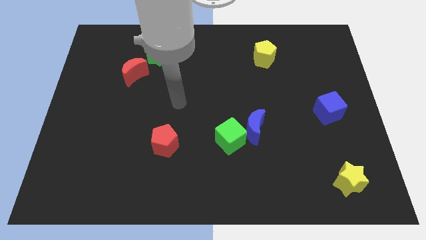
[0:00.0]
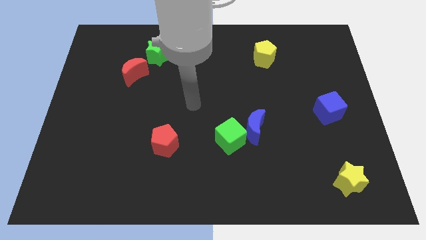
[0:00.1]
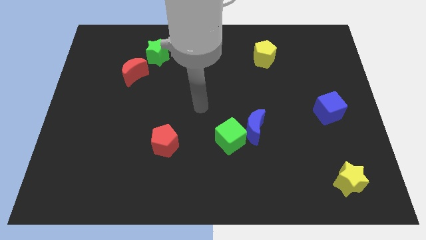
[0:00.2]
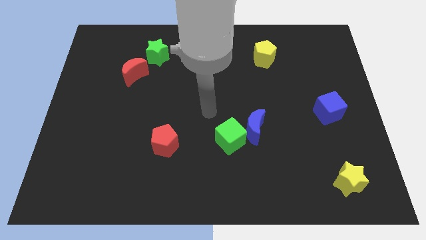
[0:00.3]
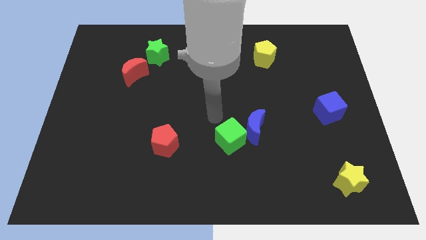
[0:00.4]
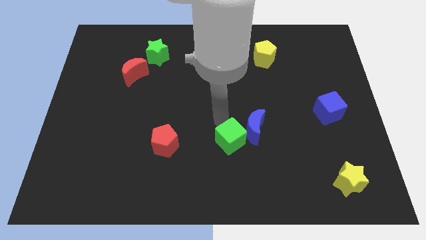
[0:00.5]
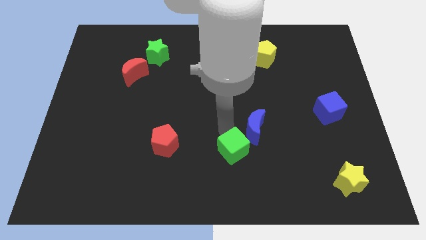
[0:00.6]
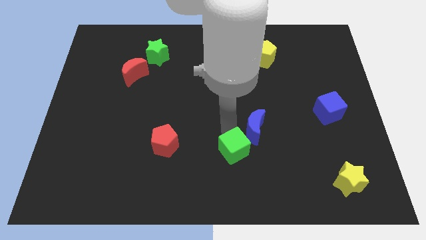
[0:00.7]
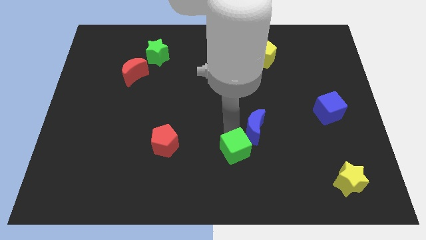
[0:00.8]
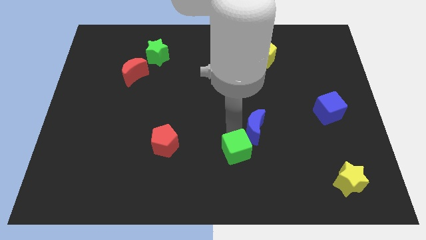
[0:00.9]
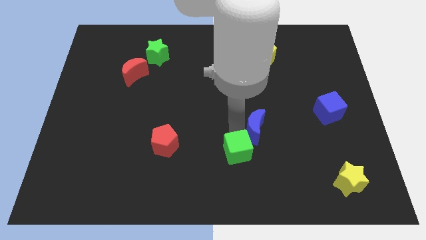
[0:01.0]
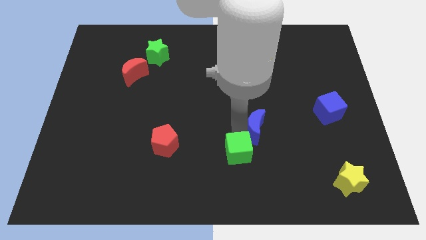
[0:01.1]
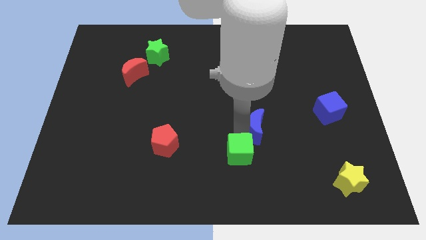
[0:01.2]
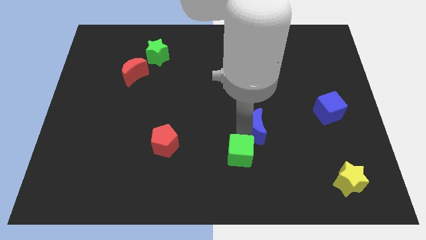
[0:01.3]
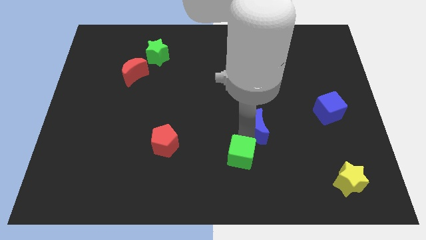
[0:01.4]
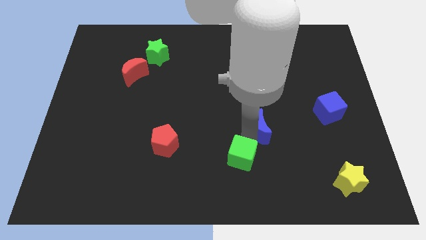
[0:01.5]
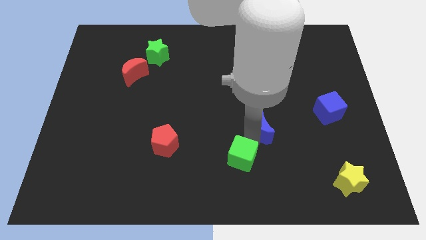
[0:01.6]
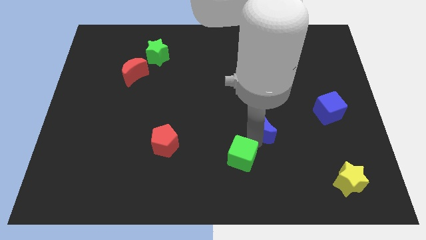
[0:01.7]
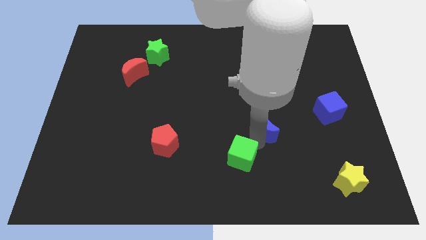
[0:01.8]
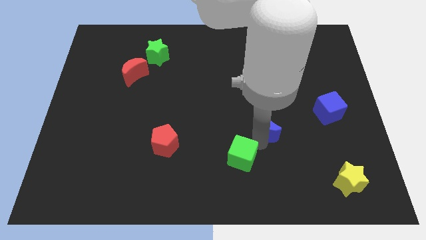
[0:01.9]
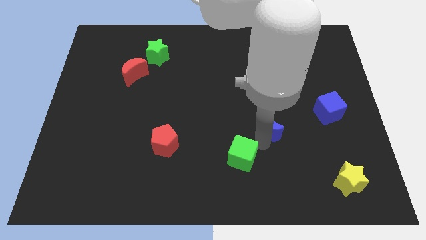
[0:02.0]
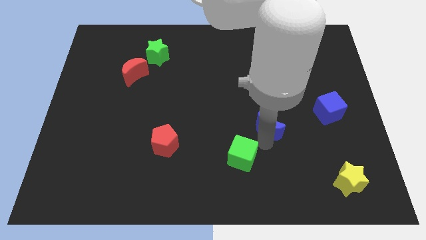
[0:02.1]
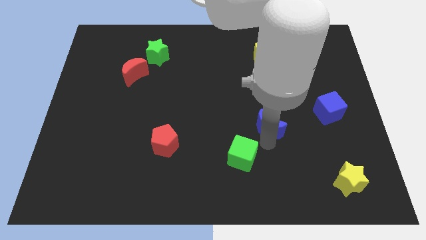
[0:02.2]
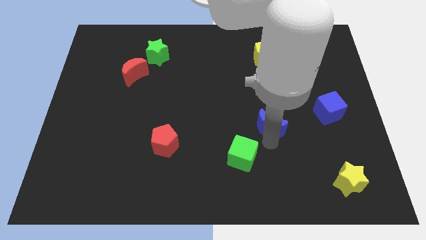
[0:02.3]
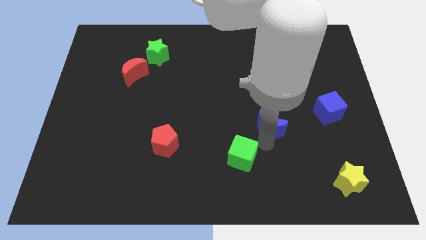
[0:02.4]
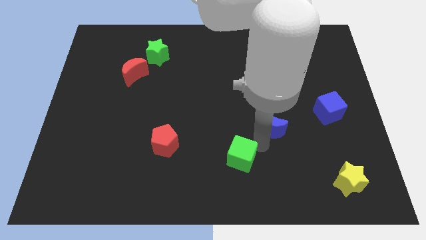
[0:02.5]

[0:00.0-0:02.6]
move the blue moon away from the green cube

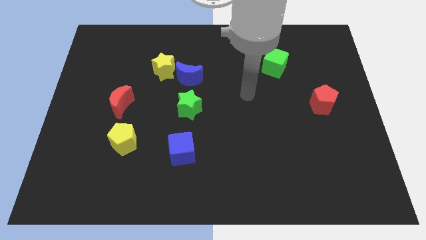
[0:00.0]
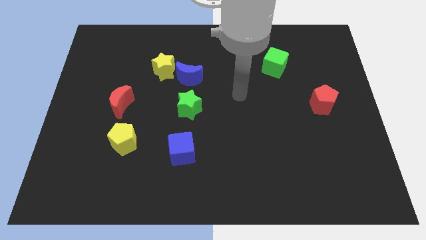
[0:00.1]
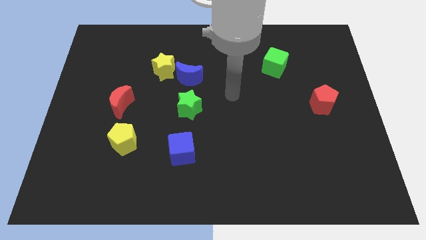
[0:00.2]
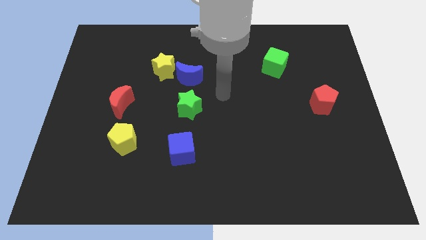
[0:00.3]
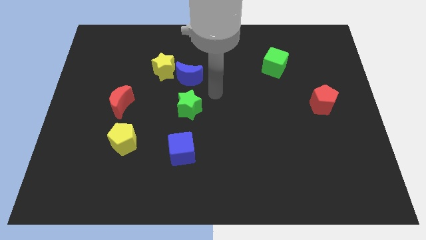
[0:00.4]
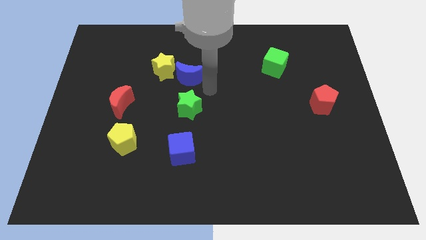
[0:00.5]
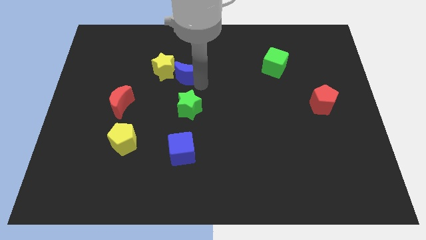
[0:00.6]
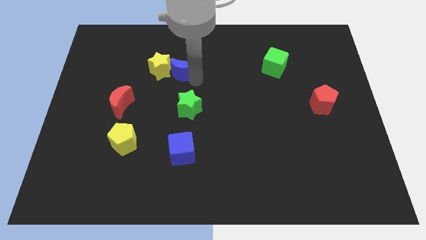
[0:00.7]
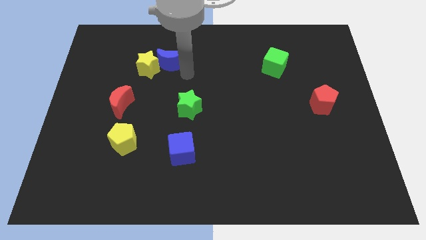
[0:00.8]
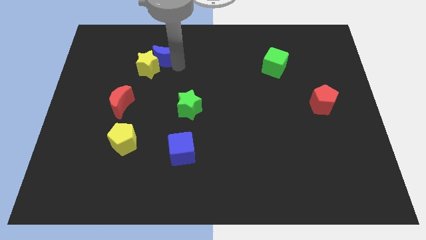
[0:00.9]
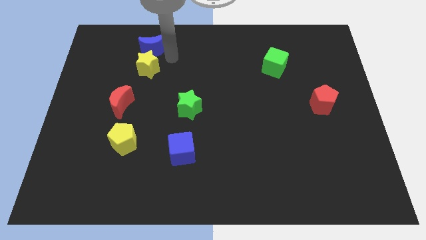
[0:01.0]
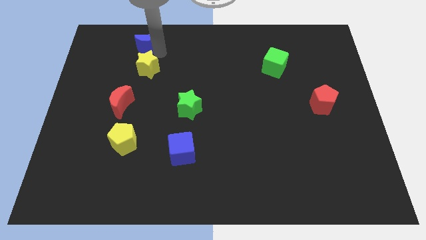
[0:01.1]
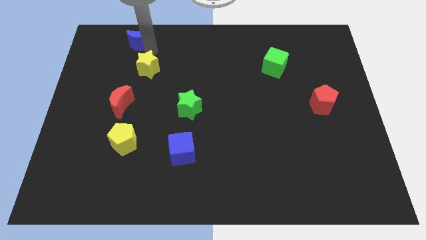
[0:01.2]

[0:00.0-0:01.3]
move the yellow star away from the blue moon

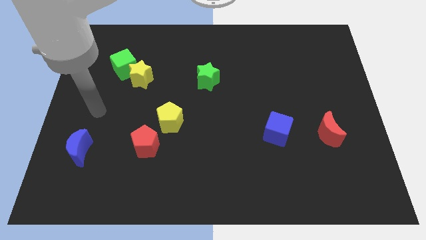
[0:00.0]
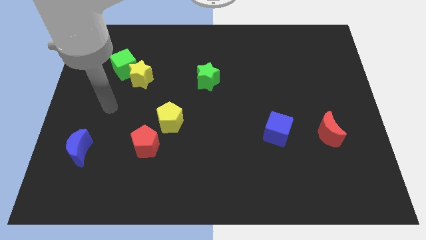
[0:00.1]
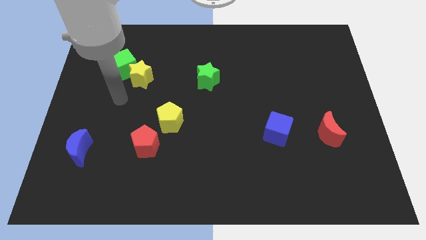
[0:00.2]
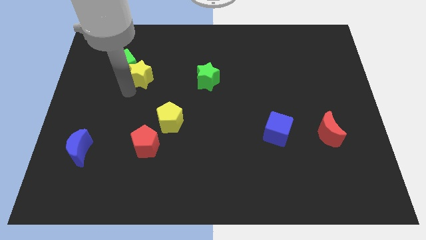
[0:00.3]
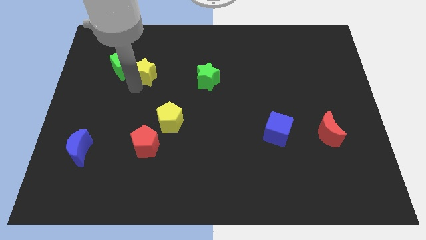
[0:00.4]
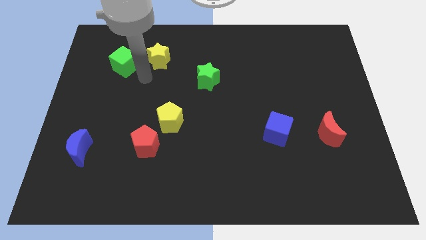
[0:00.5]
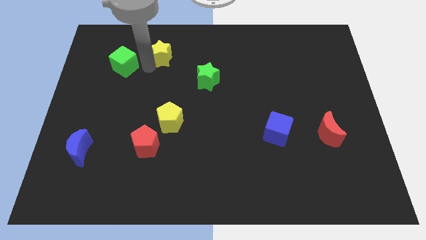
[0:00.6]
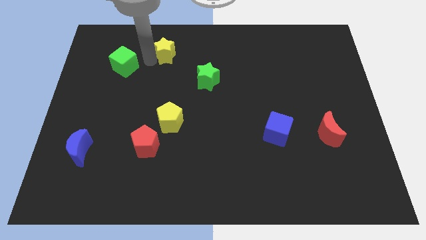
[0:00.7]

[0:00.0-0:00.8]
separate the green cube from the yellow star

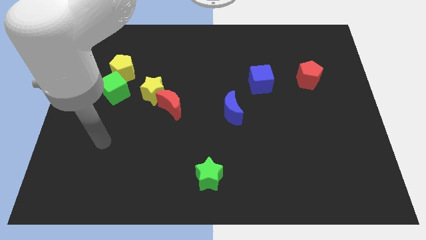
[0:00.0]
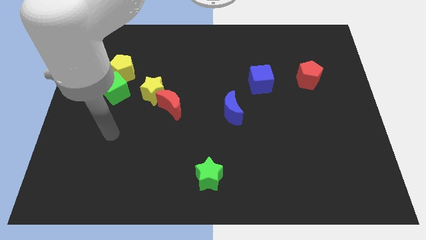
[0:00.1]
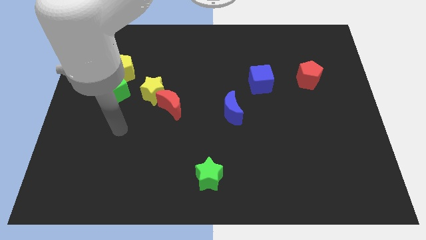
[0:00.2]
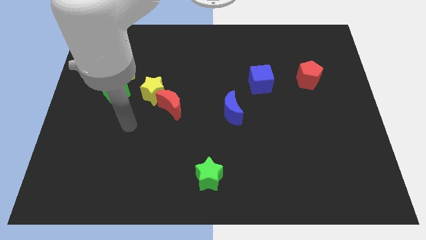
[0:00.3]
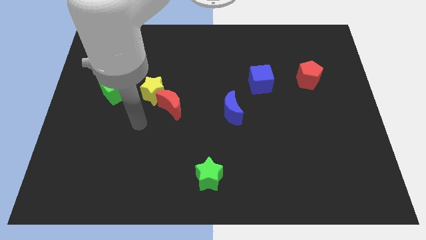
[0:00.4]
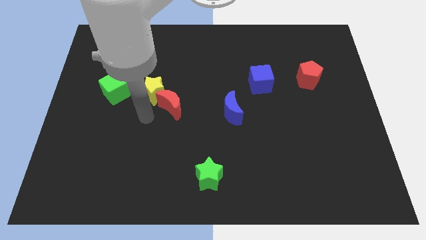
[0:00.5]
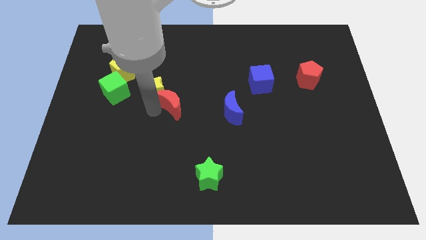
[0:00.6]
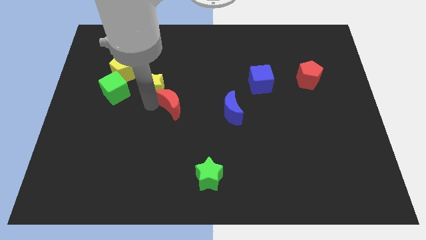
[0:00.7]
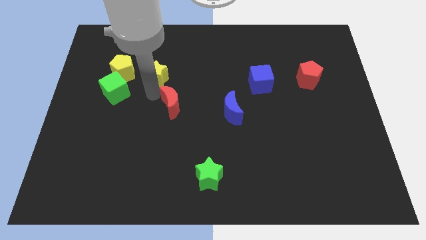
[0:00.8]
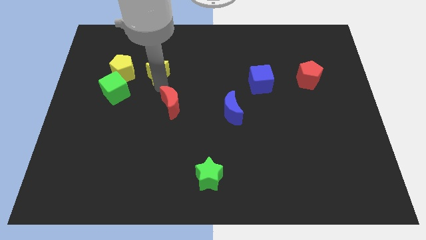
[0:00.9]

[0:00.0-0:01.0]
separate the red moon from the yellow star

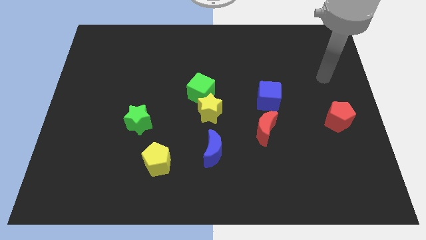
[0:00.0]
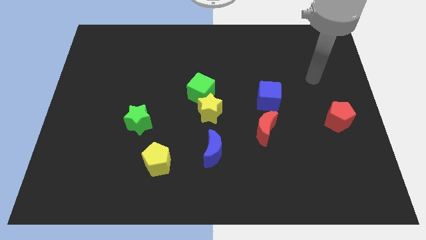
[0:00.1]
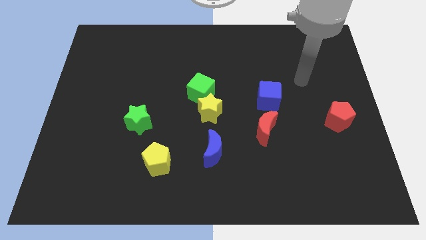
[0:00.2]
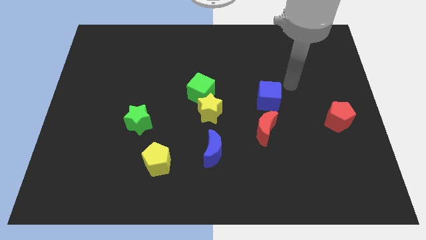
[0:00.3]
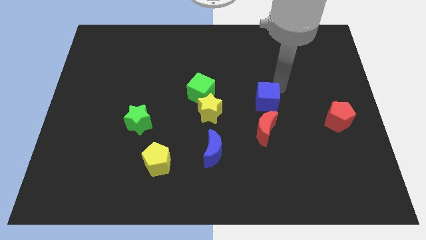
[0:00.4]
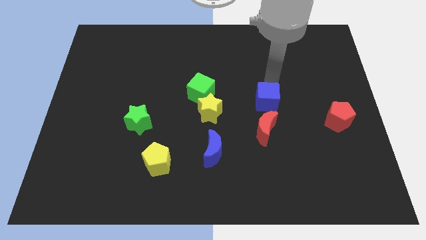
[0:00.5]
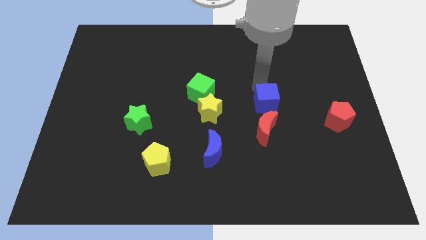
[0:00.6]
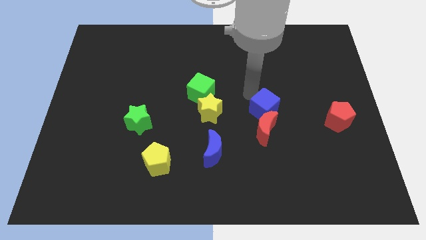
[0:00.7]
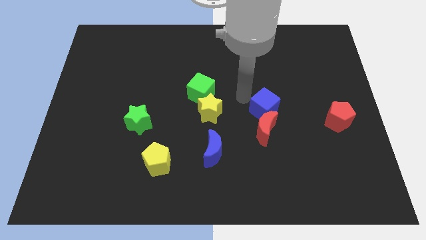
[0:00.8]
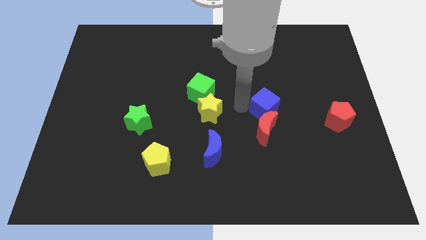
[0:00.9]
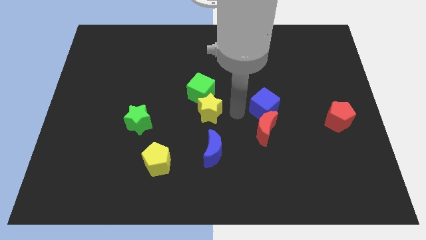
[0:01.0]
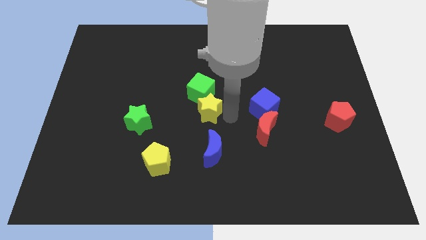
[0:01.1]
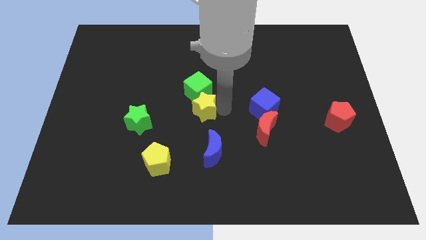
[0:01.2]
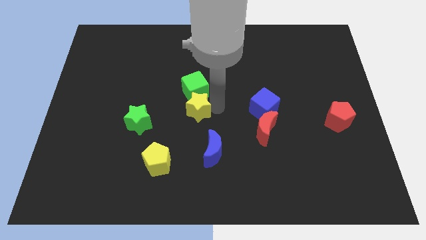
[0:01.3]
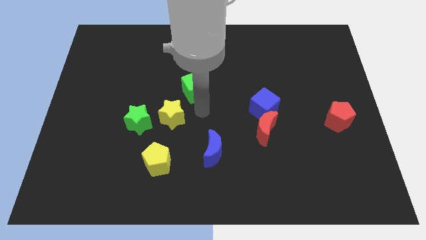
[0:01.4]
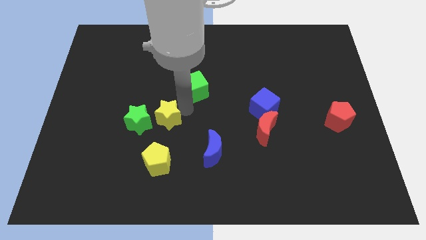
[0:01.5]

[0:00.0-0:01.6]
move the green cube away from the yellow star

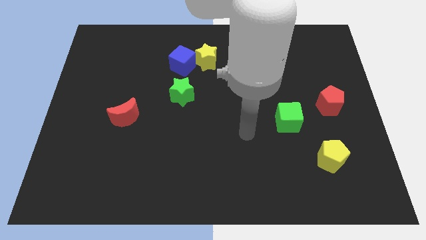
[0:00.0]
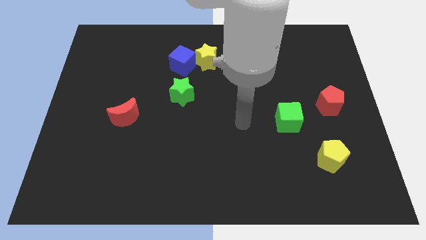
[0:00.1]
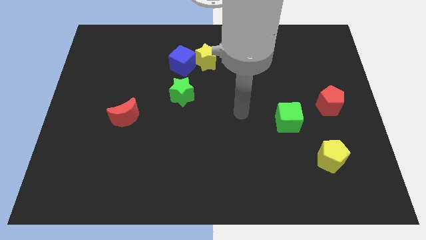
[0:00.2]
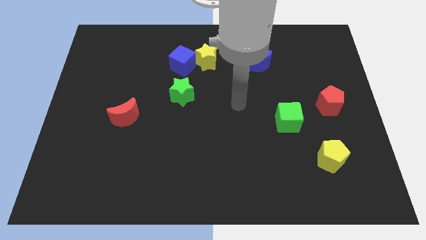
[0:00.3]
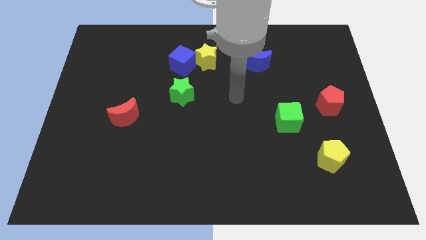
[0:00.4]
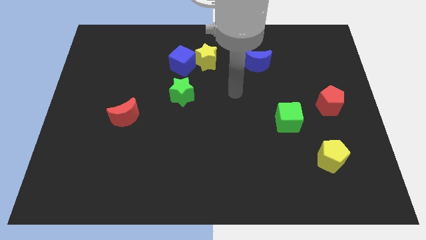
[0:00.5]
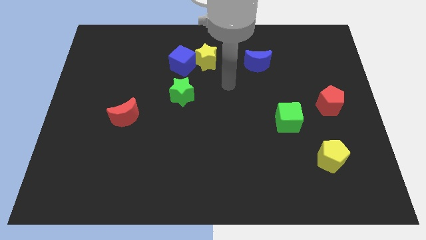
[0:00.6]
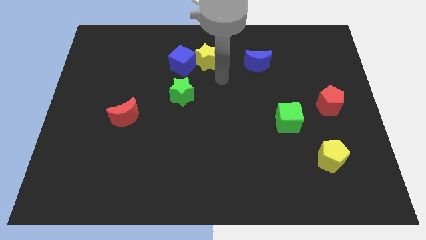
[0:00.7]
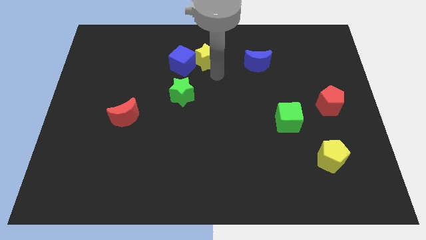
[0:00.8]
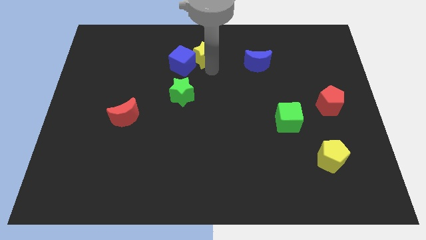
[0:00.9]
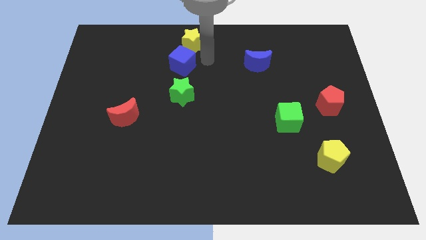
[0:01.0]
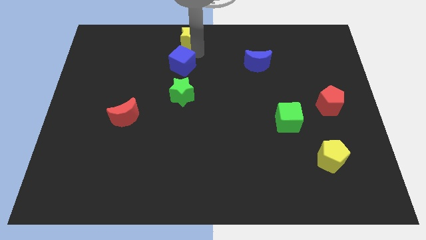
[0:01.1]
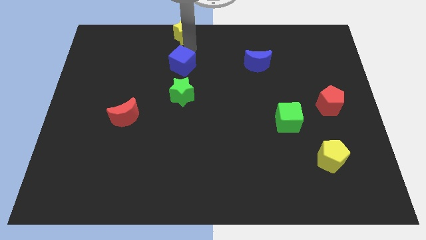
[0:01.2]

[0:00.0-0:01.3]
move the blue cube away from the yellow star

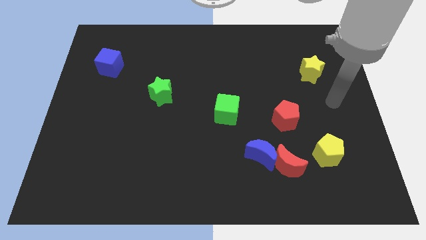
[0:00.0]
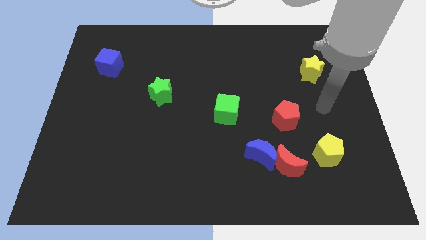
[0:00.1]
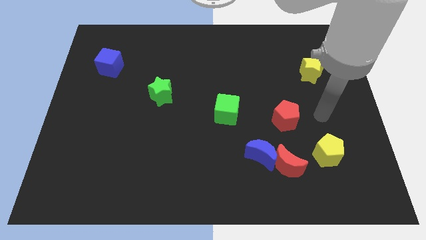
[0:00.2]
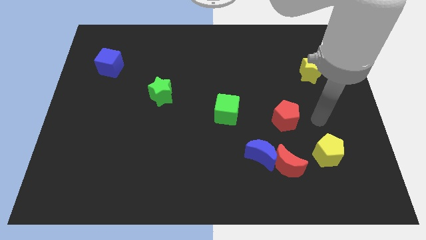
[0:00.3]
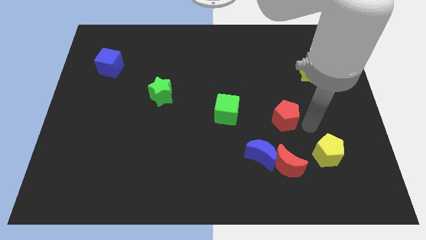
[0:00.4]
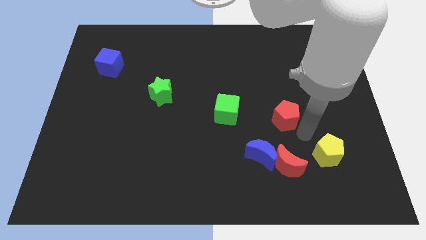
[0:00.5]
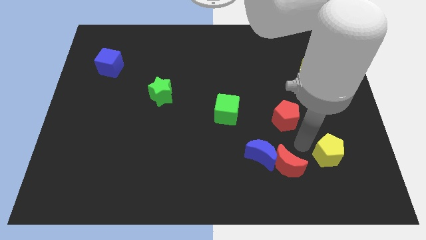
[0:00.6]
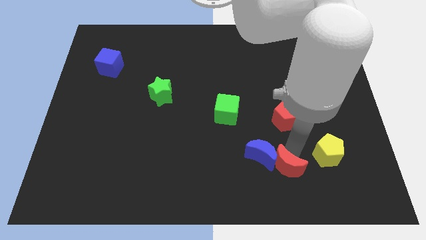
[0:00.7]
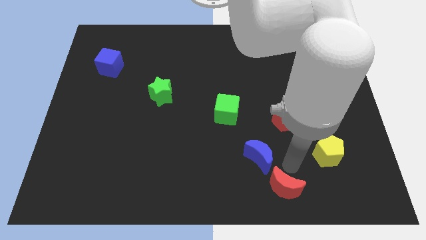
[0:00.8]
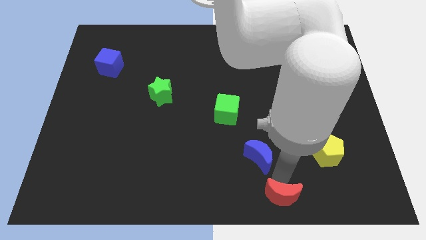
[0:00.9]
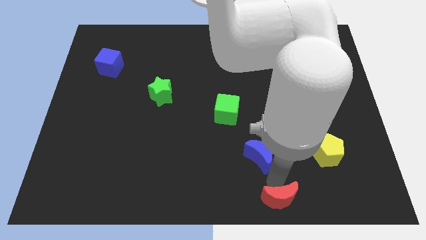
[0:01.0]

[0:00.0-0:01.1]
separate the blue moon from the red moon
